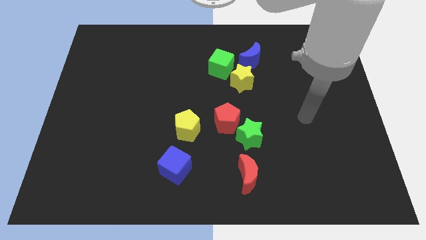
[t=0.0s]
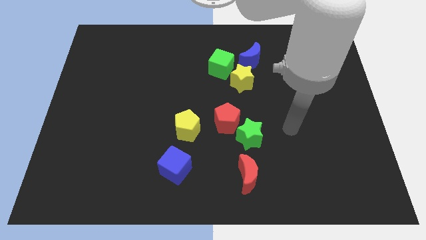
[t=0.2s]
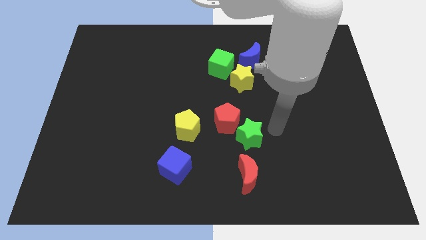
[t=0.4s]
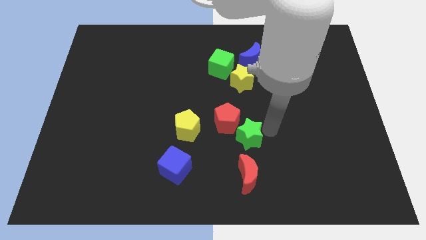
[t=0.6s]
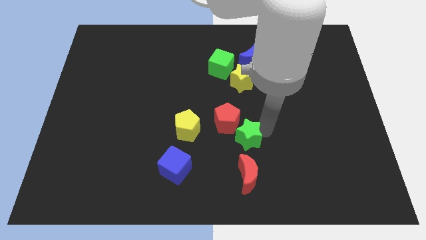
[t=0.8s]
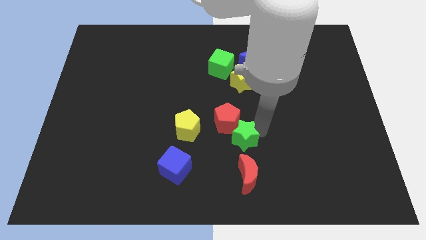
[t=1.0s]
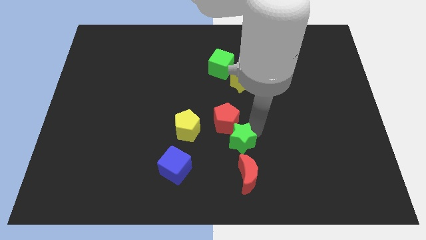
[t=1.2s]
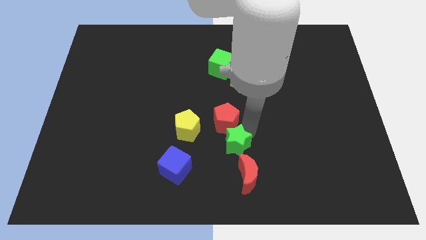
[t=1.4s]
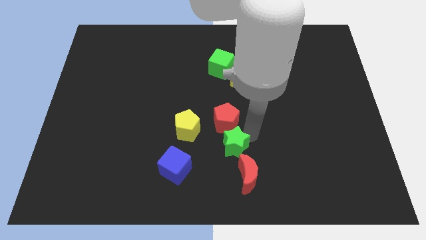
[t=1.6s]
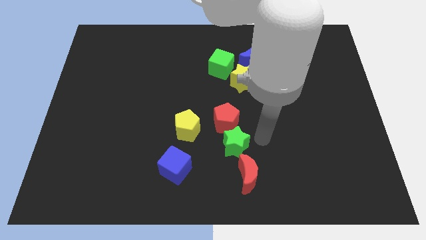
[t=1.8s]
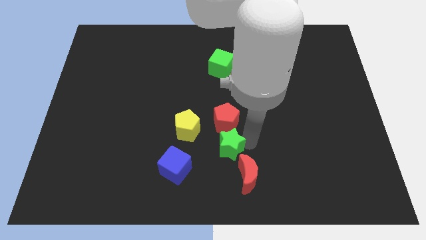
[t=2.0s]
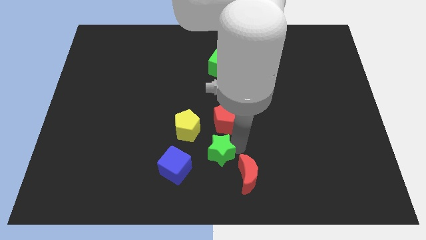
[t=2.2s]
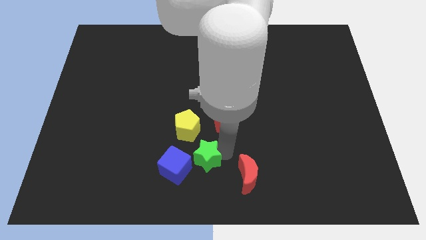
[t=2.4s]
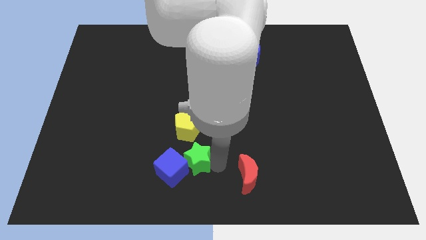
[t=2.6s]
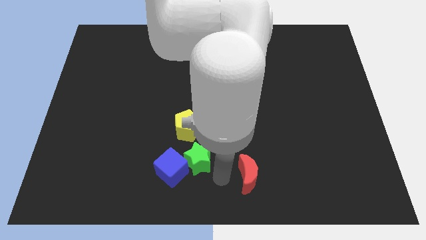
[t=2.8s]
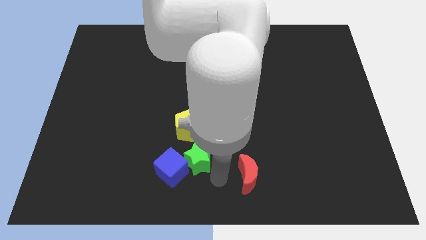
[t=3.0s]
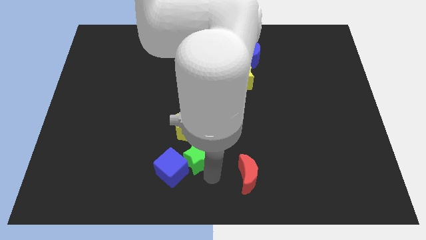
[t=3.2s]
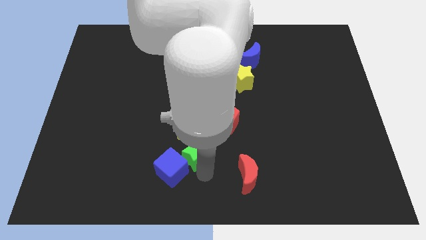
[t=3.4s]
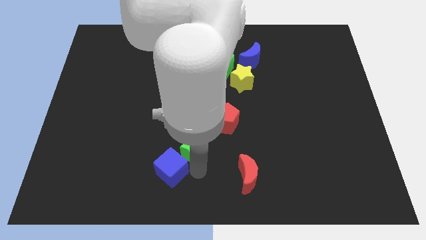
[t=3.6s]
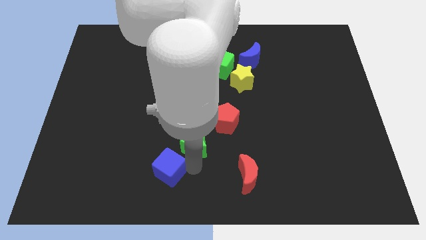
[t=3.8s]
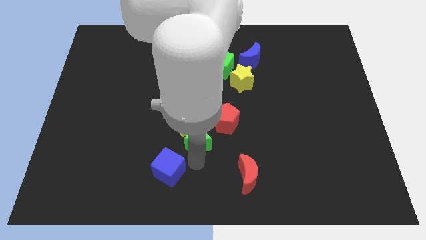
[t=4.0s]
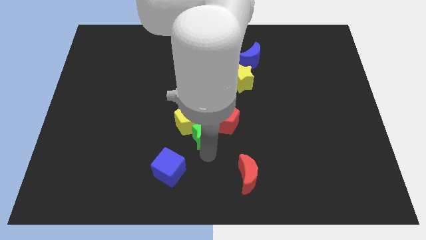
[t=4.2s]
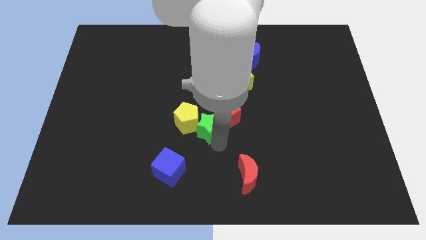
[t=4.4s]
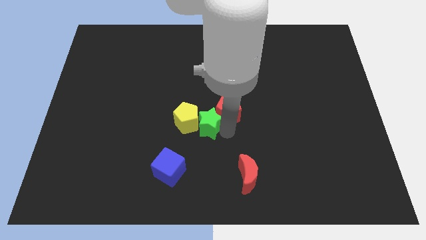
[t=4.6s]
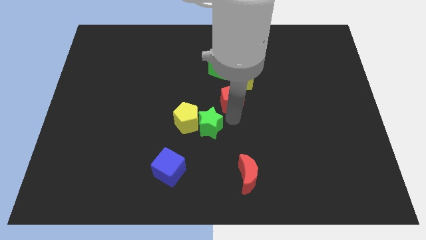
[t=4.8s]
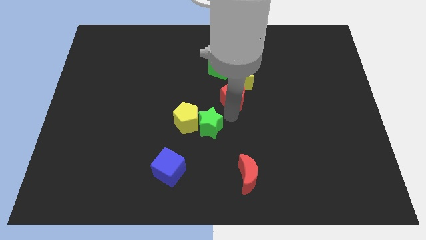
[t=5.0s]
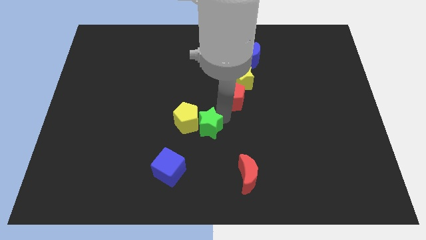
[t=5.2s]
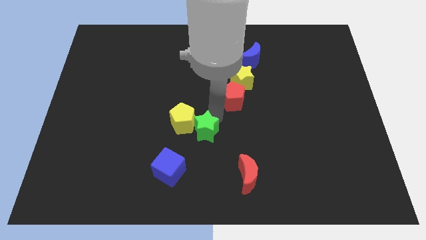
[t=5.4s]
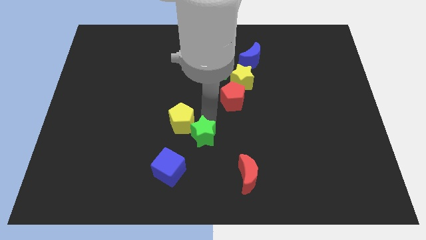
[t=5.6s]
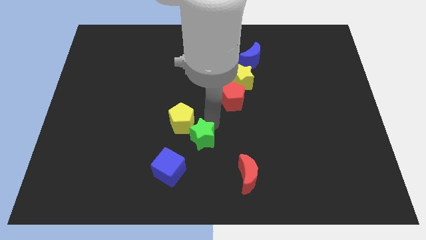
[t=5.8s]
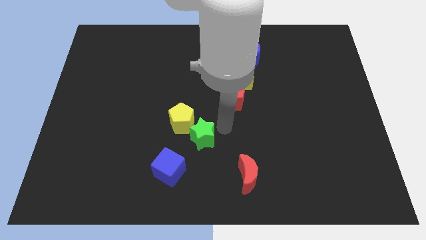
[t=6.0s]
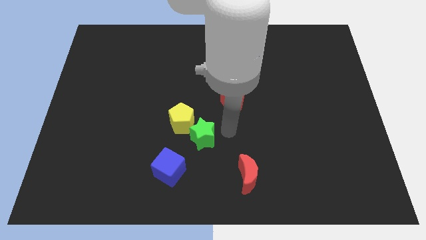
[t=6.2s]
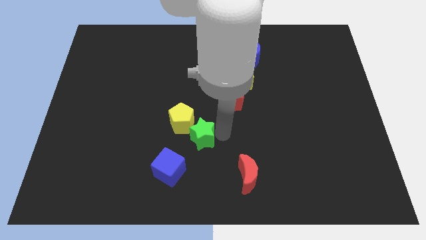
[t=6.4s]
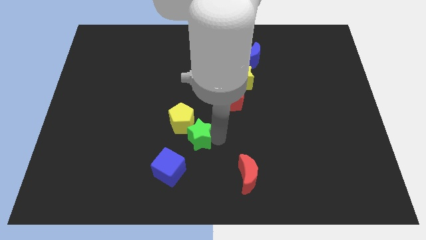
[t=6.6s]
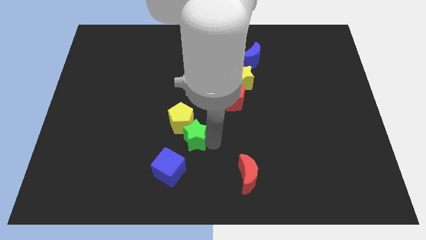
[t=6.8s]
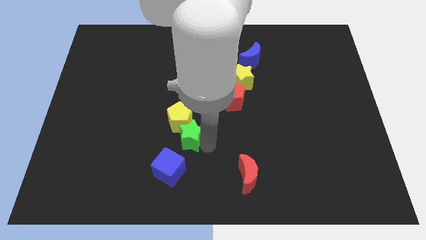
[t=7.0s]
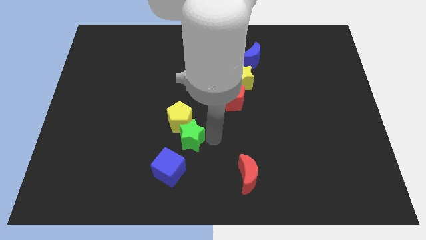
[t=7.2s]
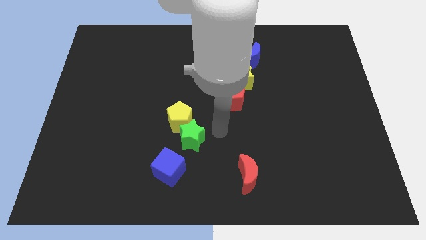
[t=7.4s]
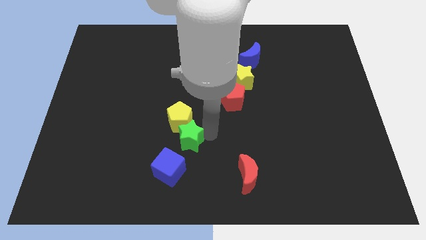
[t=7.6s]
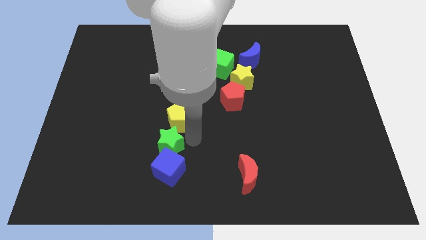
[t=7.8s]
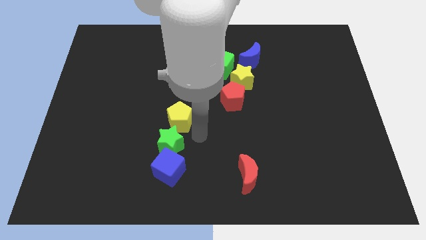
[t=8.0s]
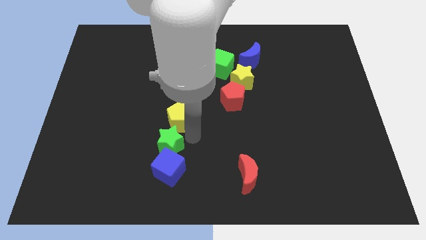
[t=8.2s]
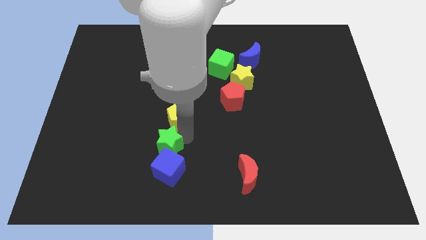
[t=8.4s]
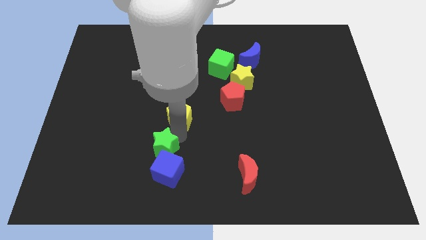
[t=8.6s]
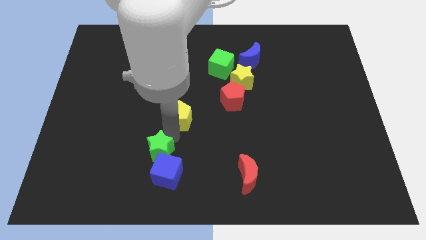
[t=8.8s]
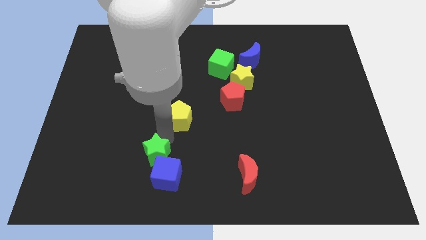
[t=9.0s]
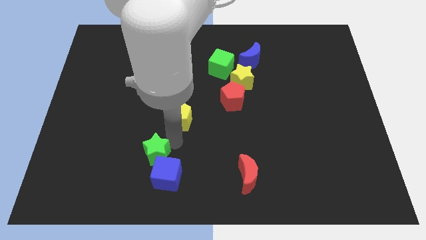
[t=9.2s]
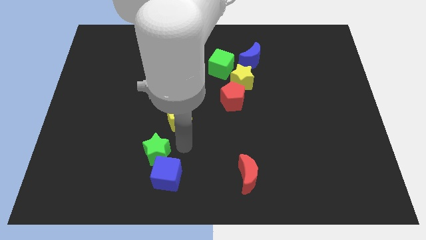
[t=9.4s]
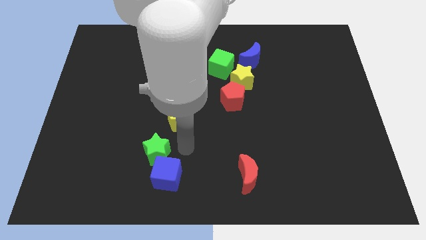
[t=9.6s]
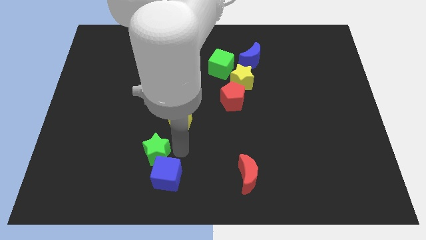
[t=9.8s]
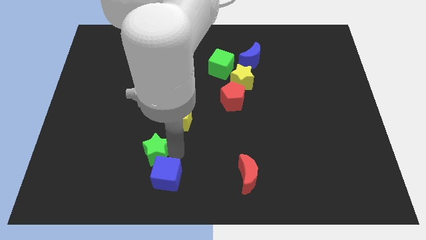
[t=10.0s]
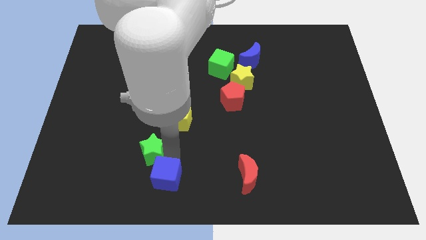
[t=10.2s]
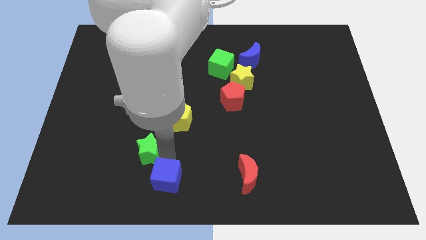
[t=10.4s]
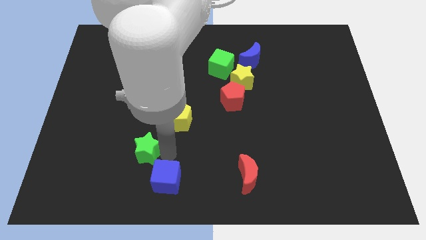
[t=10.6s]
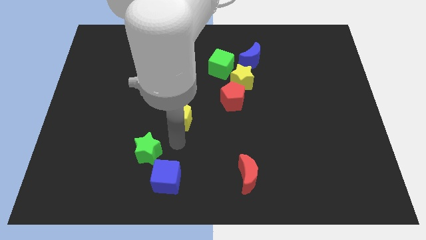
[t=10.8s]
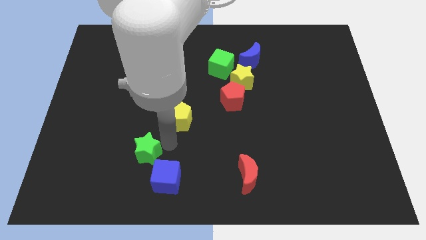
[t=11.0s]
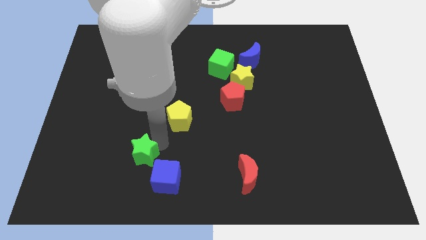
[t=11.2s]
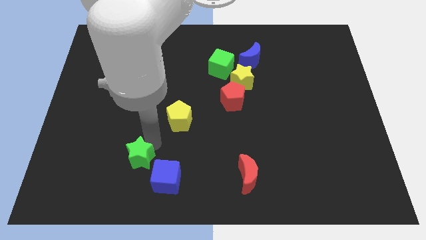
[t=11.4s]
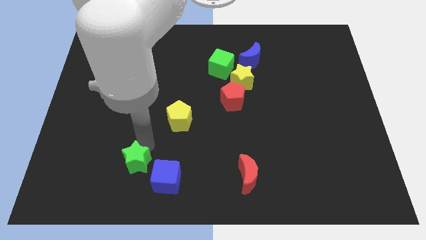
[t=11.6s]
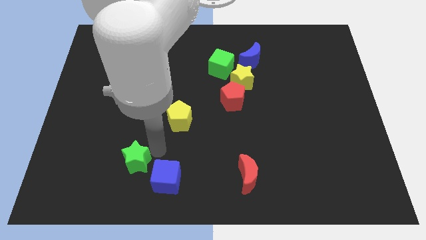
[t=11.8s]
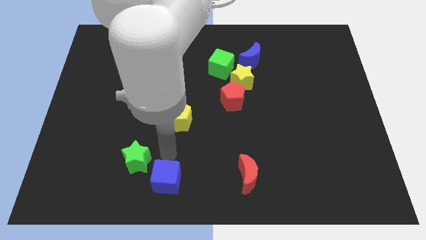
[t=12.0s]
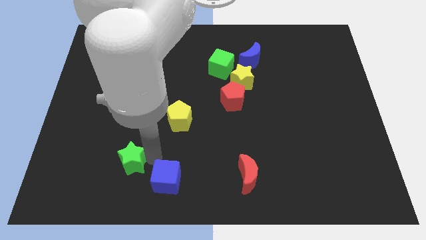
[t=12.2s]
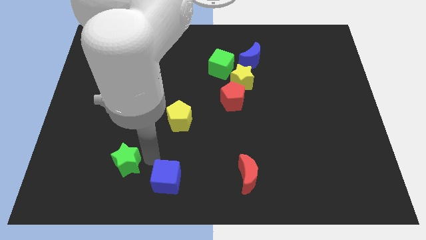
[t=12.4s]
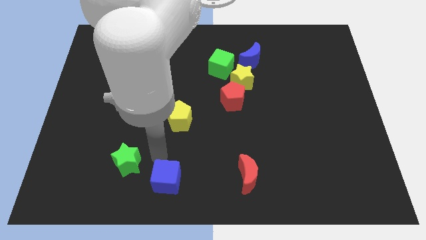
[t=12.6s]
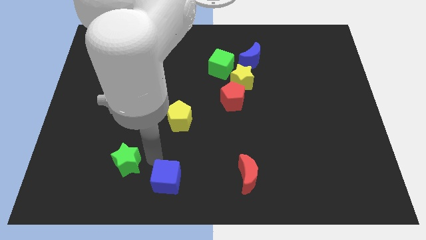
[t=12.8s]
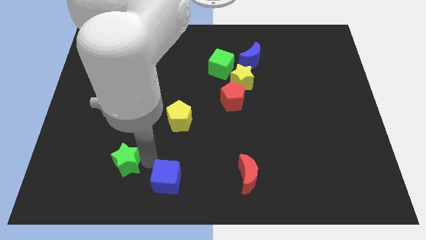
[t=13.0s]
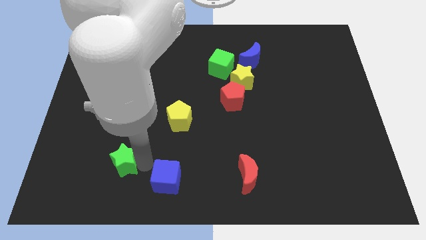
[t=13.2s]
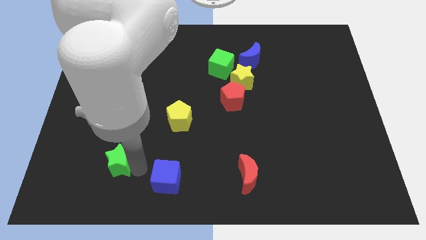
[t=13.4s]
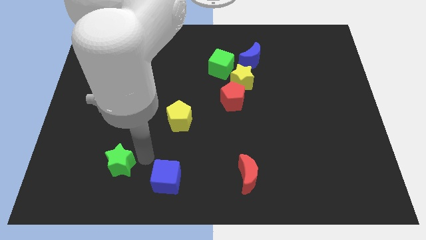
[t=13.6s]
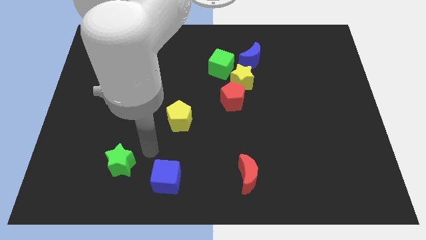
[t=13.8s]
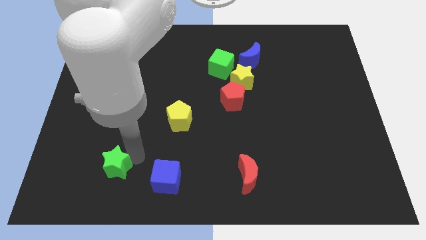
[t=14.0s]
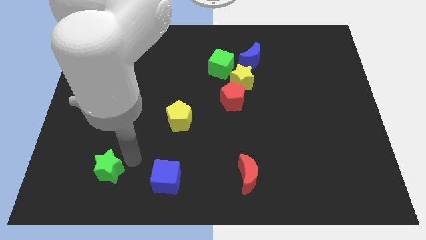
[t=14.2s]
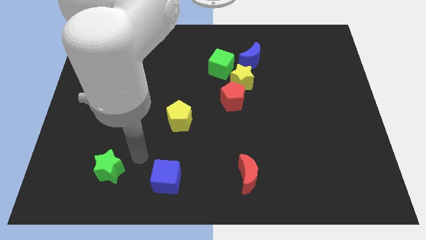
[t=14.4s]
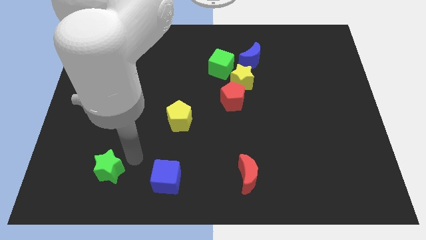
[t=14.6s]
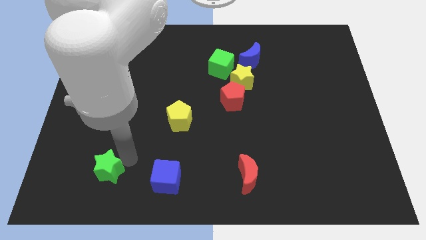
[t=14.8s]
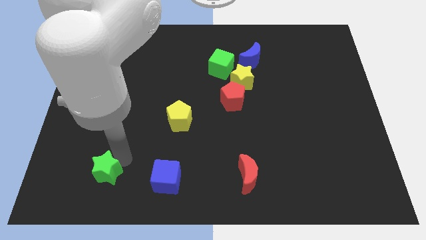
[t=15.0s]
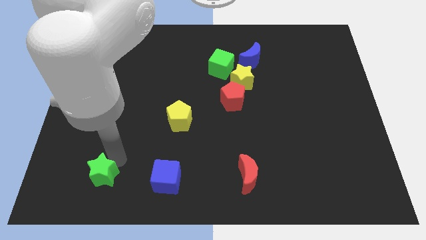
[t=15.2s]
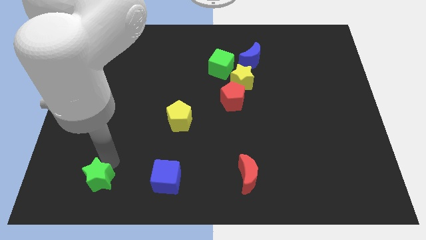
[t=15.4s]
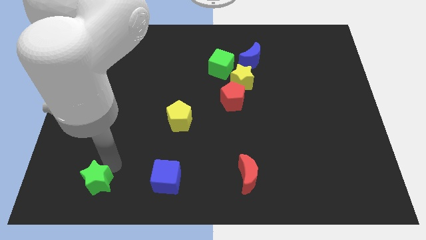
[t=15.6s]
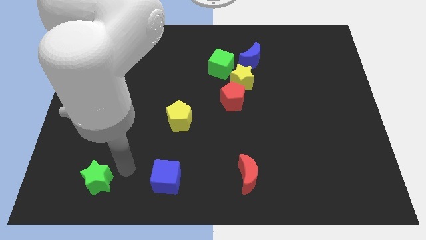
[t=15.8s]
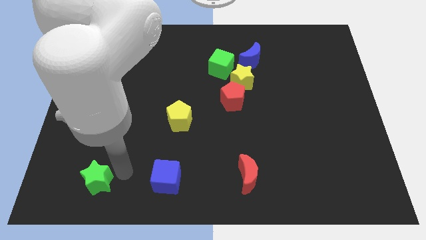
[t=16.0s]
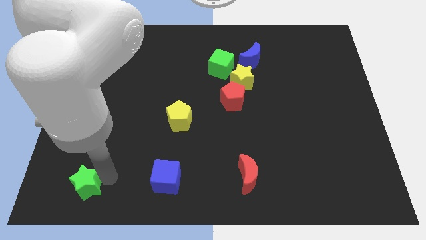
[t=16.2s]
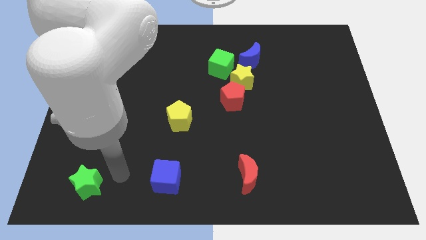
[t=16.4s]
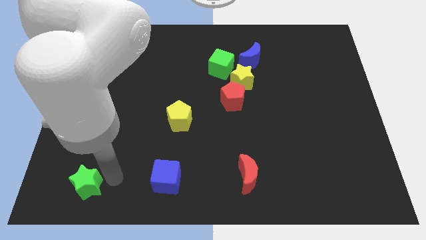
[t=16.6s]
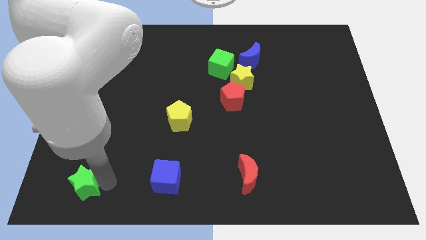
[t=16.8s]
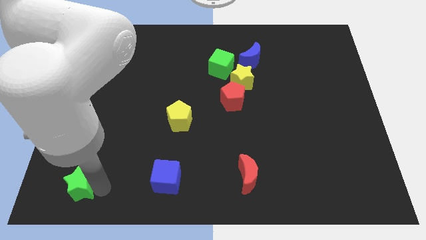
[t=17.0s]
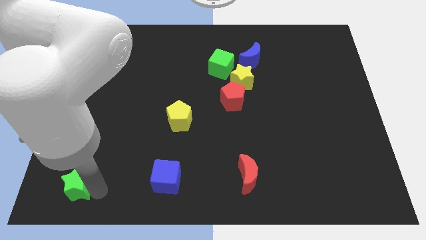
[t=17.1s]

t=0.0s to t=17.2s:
put the green star to the lower left corner
